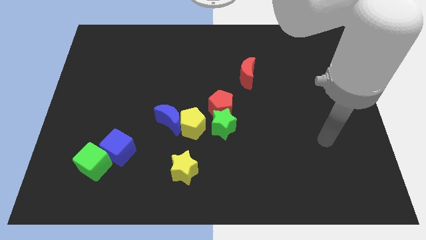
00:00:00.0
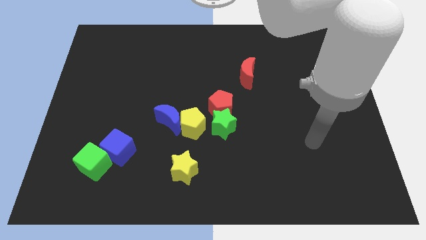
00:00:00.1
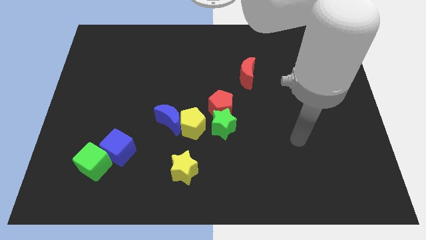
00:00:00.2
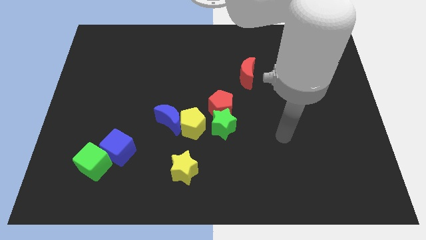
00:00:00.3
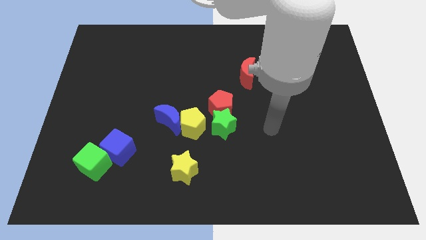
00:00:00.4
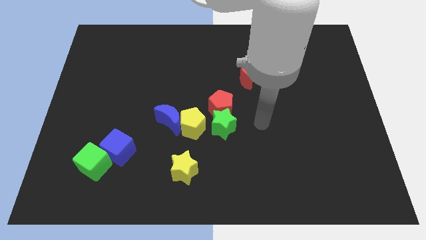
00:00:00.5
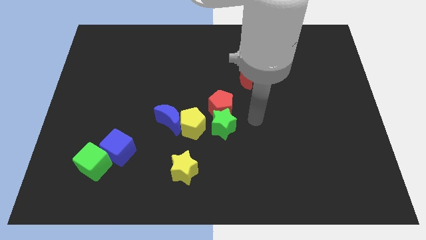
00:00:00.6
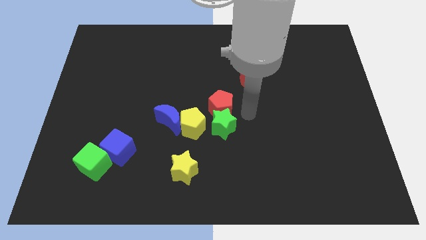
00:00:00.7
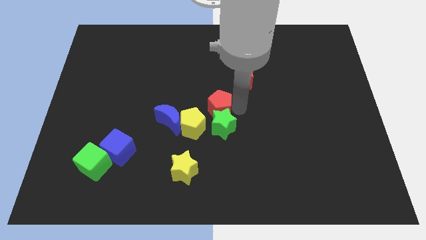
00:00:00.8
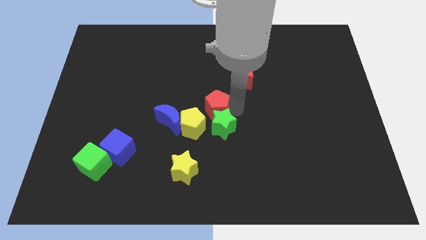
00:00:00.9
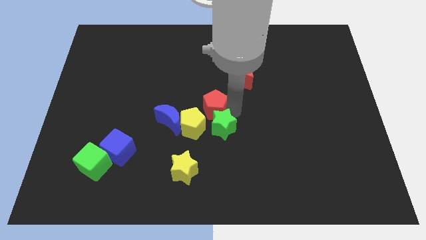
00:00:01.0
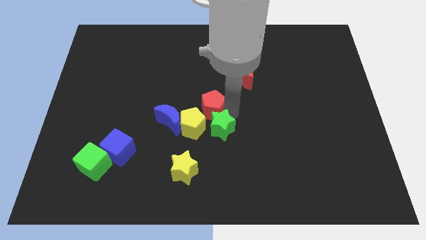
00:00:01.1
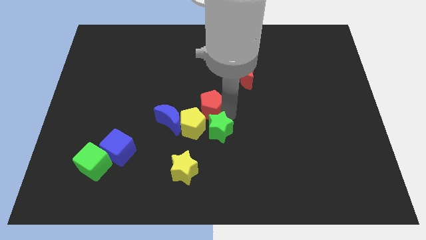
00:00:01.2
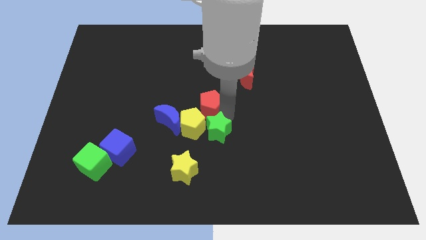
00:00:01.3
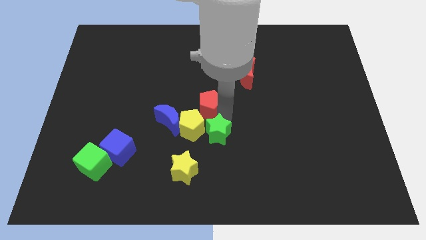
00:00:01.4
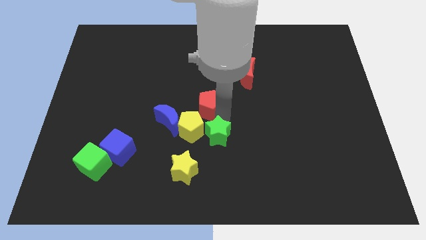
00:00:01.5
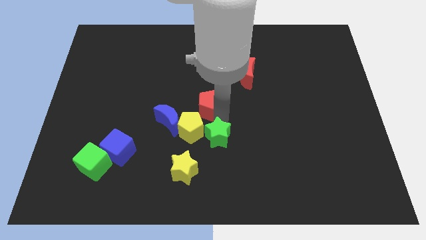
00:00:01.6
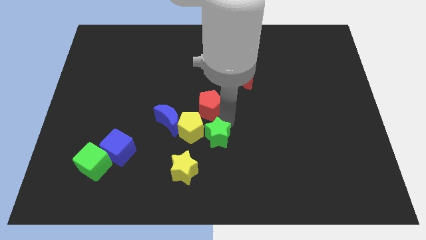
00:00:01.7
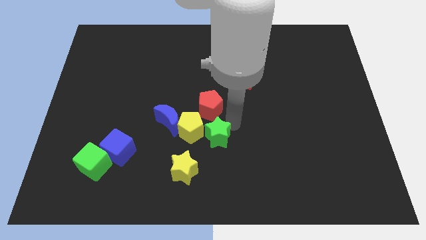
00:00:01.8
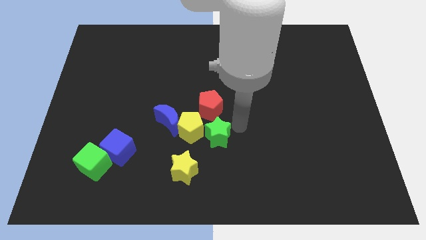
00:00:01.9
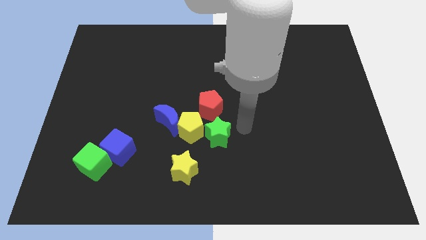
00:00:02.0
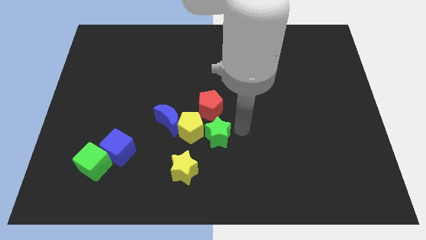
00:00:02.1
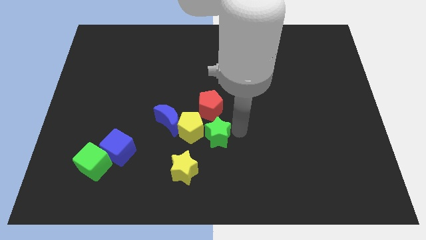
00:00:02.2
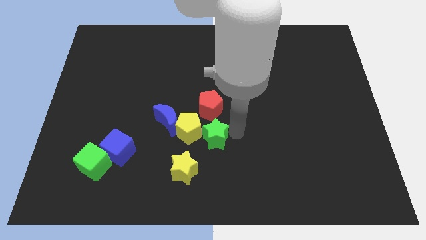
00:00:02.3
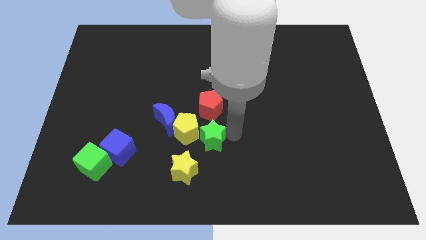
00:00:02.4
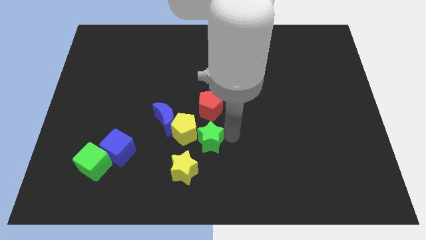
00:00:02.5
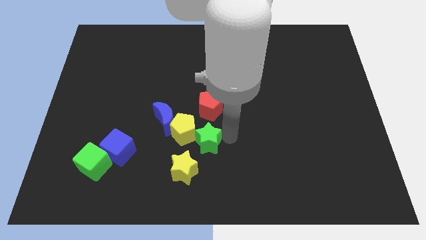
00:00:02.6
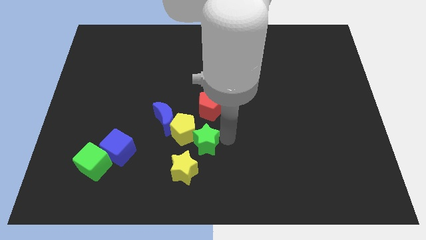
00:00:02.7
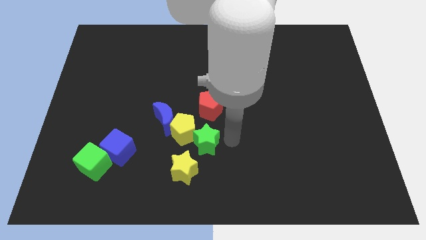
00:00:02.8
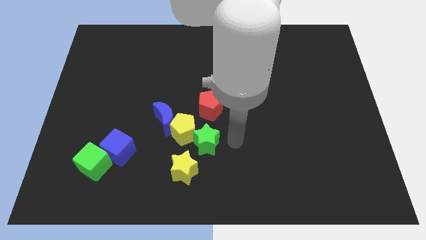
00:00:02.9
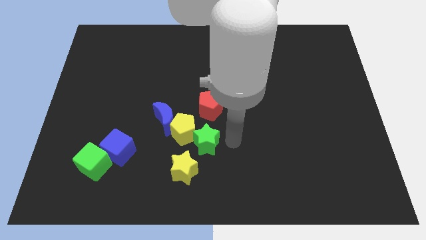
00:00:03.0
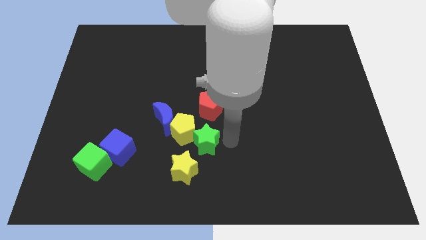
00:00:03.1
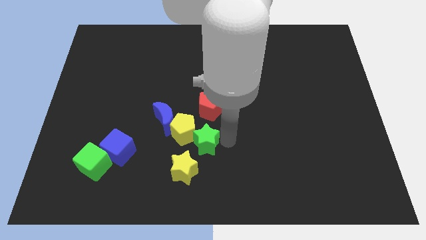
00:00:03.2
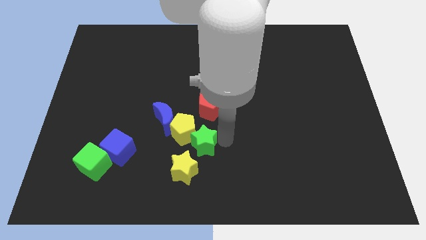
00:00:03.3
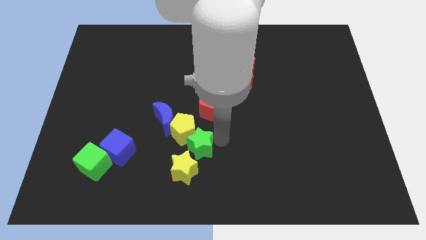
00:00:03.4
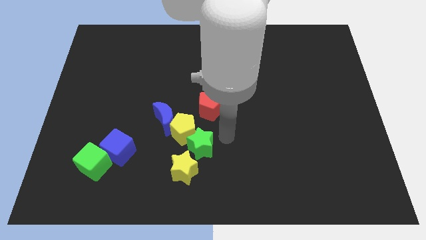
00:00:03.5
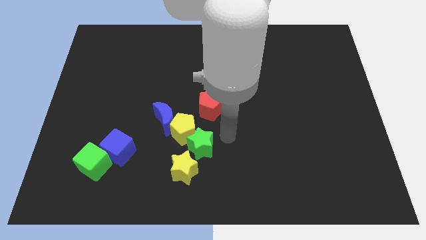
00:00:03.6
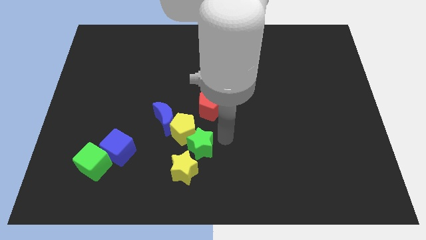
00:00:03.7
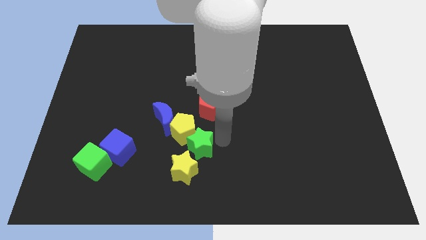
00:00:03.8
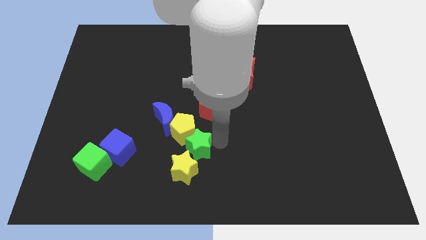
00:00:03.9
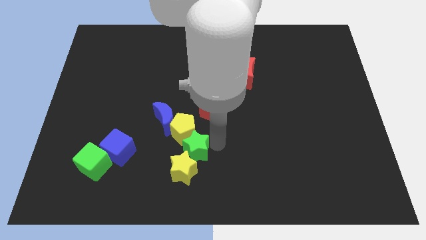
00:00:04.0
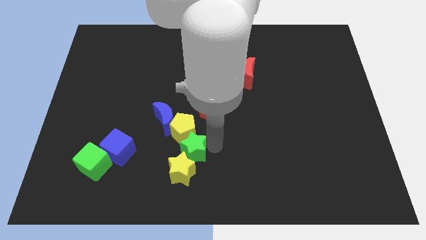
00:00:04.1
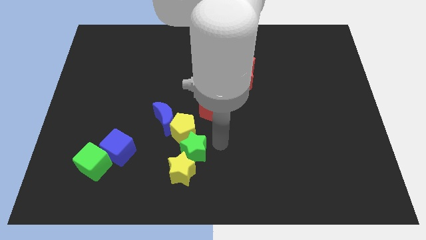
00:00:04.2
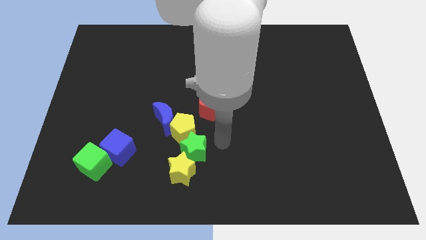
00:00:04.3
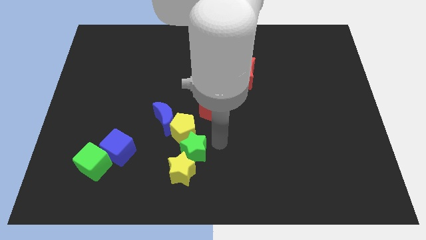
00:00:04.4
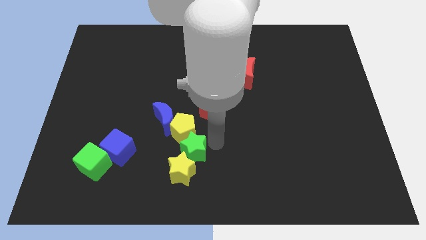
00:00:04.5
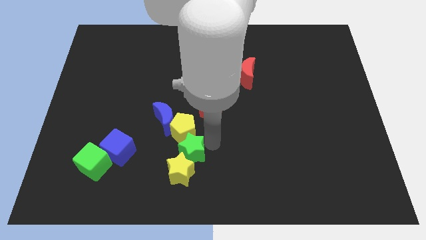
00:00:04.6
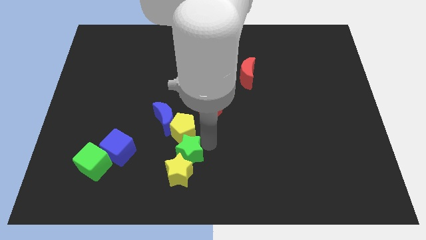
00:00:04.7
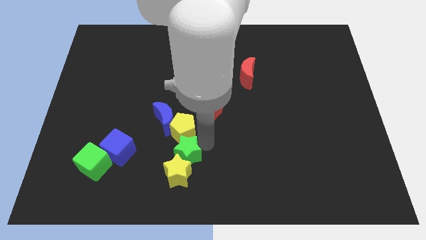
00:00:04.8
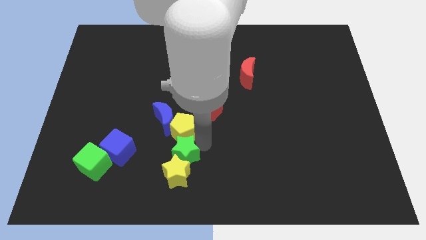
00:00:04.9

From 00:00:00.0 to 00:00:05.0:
push the green star to the bottom side of the blue moon

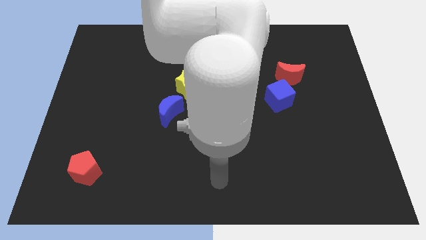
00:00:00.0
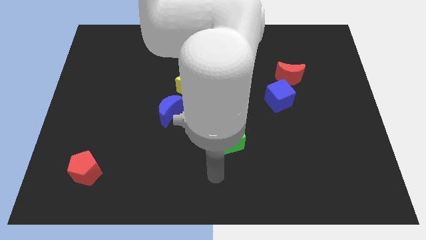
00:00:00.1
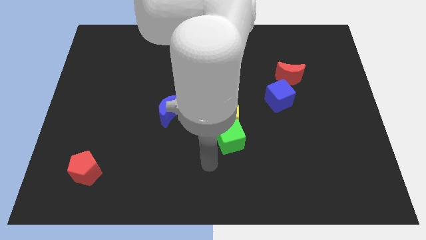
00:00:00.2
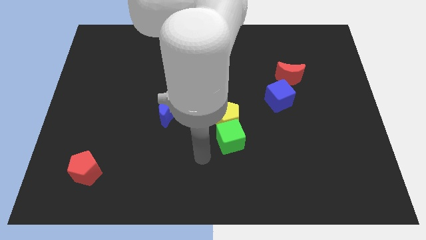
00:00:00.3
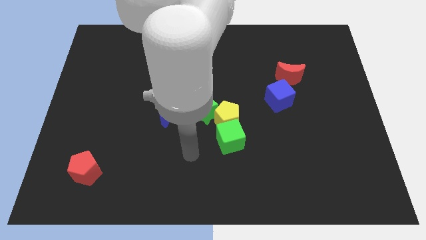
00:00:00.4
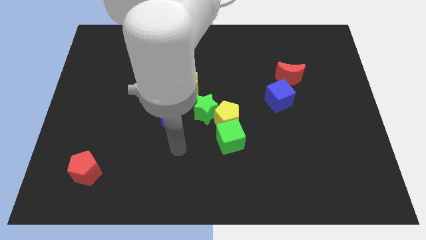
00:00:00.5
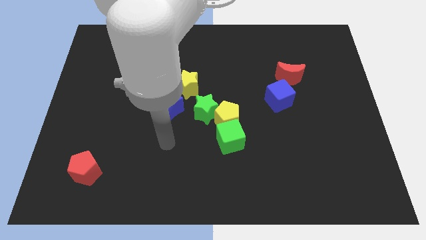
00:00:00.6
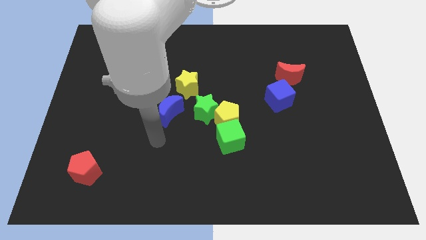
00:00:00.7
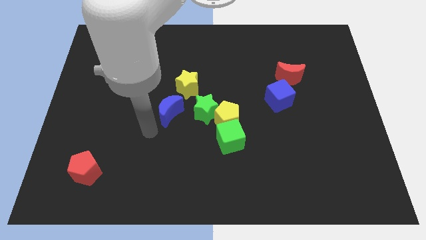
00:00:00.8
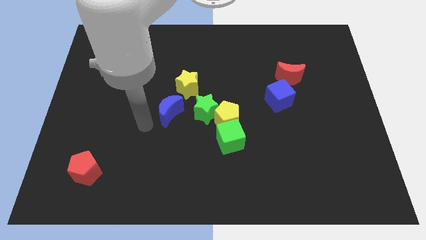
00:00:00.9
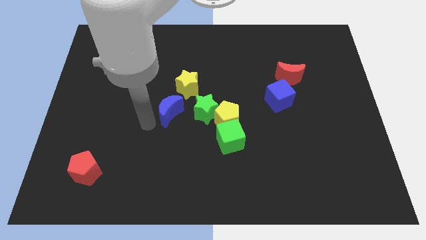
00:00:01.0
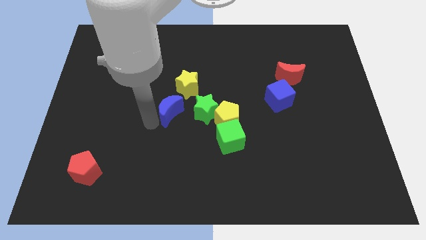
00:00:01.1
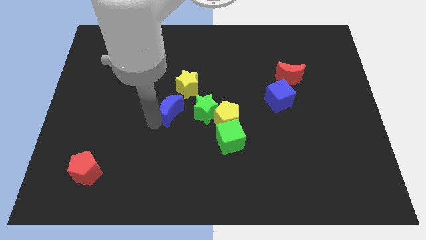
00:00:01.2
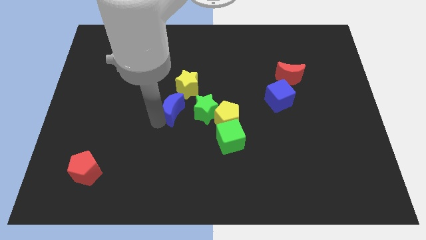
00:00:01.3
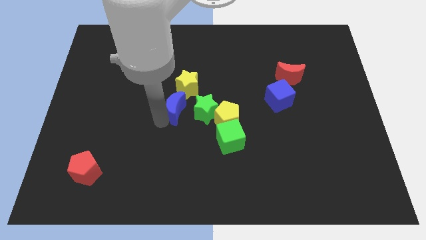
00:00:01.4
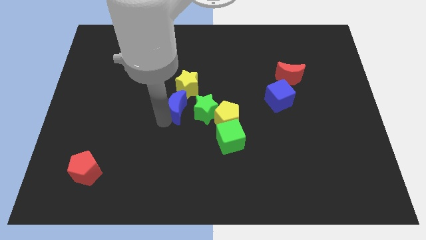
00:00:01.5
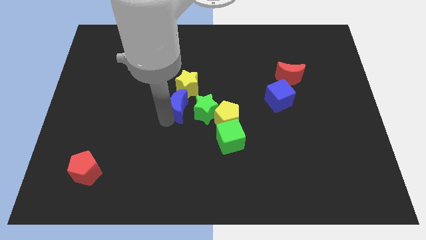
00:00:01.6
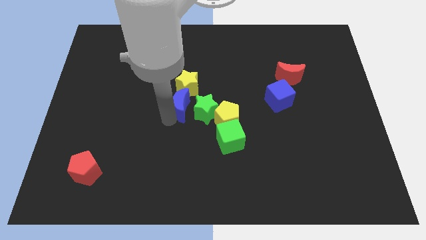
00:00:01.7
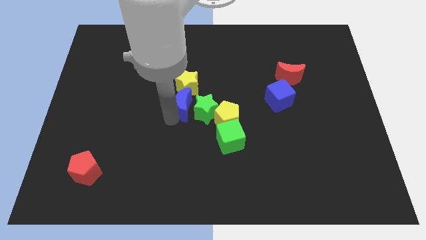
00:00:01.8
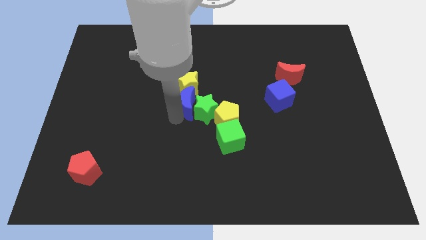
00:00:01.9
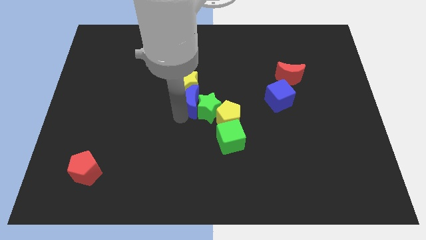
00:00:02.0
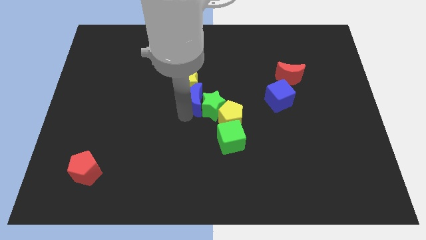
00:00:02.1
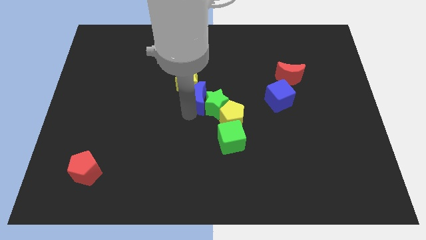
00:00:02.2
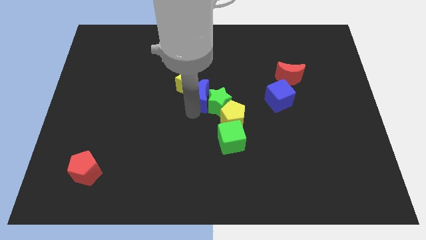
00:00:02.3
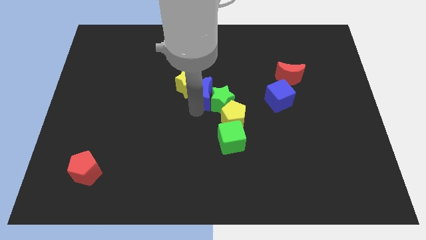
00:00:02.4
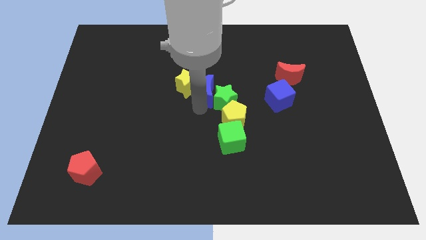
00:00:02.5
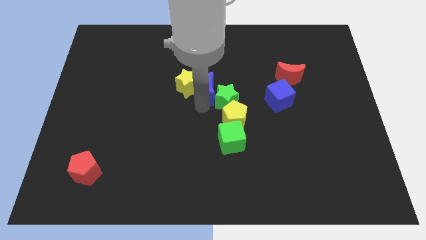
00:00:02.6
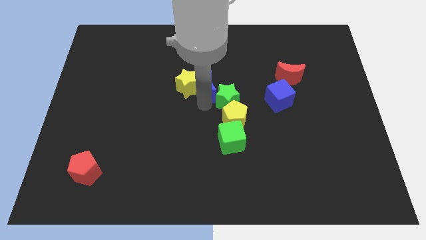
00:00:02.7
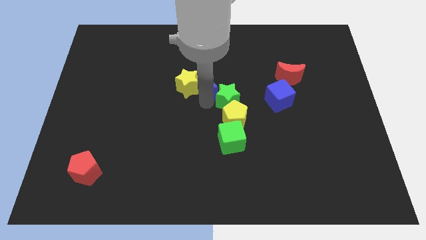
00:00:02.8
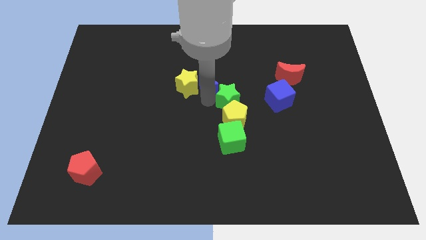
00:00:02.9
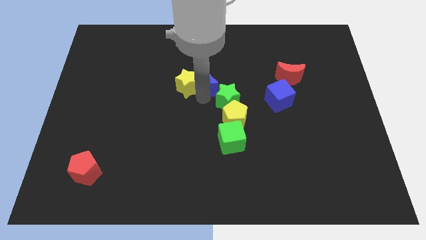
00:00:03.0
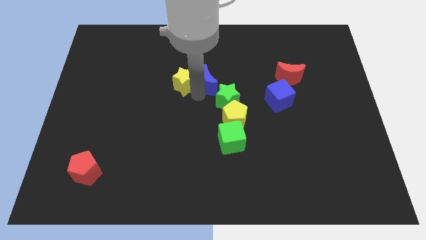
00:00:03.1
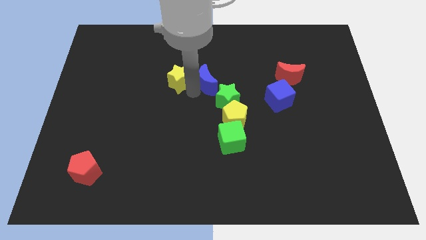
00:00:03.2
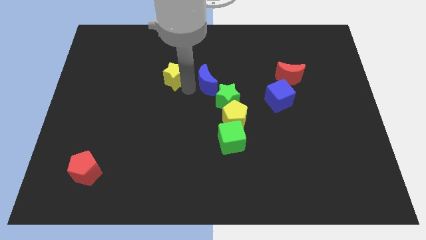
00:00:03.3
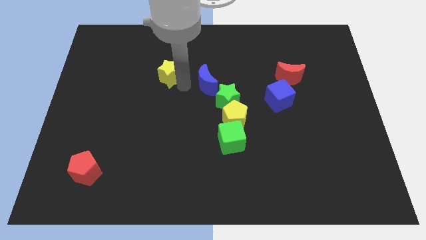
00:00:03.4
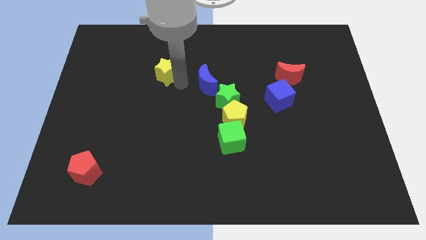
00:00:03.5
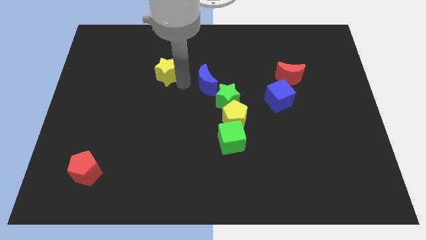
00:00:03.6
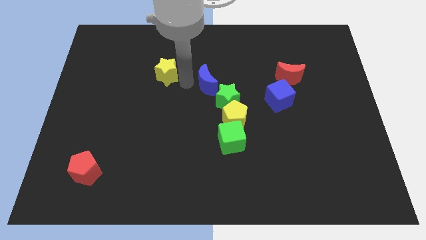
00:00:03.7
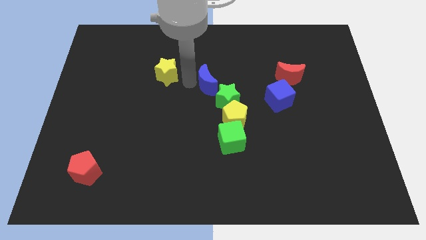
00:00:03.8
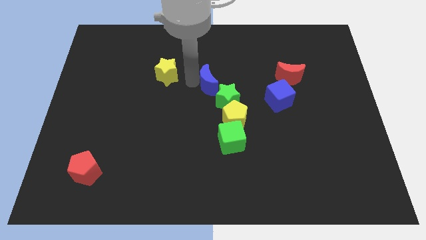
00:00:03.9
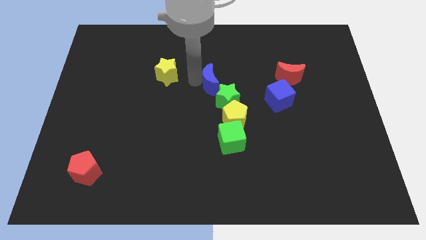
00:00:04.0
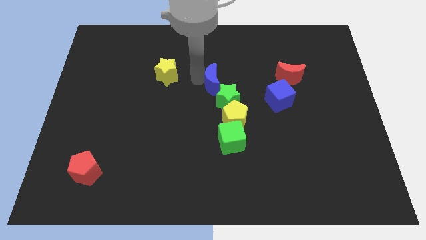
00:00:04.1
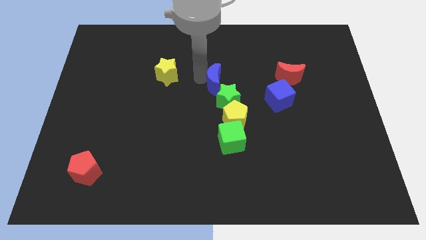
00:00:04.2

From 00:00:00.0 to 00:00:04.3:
move the blue moon to the top of the yellow pentagon
